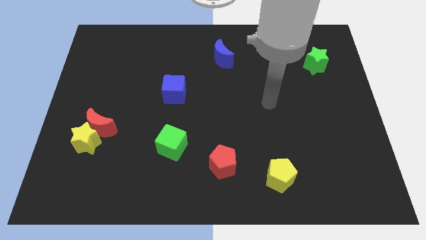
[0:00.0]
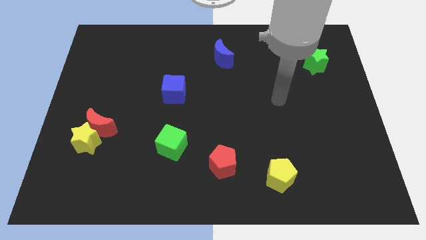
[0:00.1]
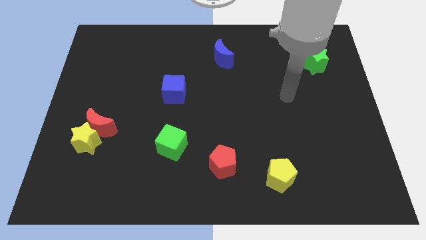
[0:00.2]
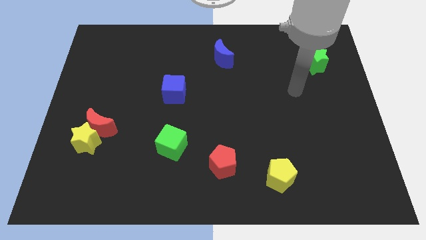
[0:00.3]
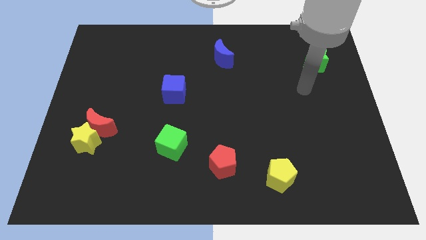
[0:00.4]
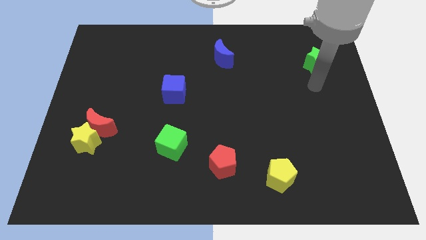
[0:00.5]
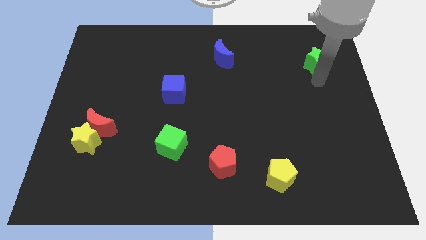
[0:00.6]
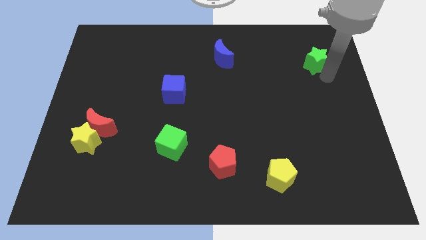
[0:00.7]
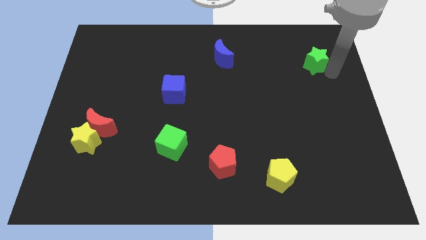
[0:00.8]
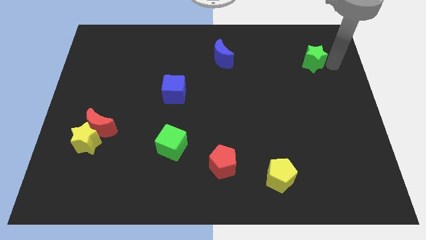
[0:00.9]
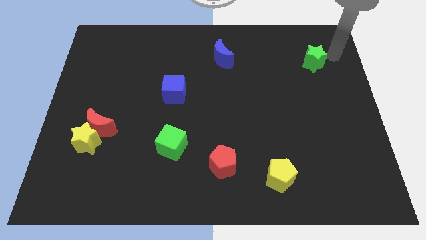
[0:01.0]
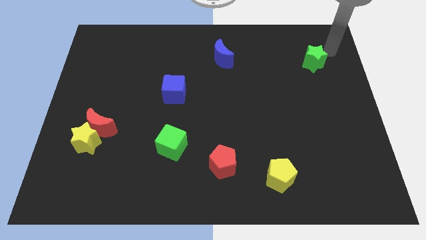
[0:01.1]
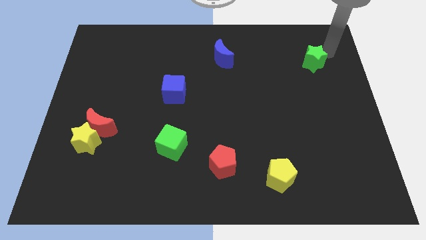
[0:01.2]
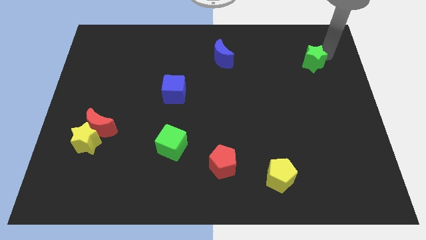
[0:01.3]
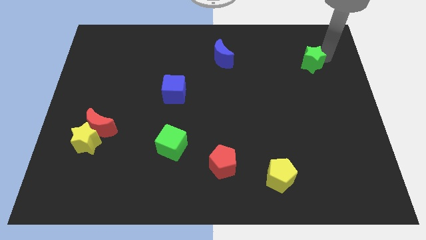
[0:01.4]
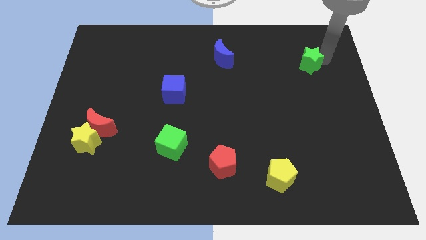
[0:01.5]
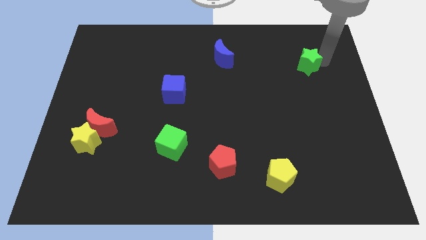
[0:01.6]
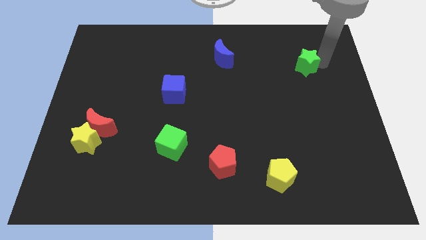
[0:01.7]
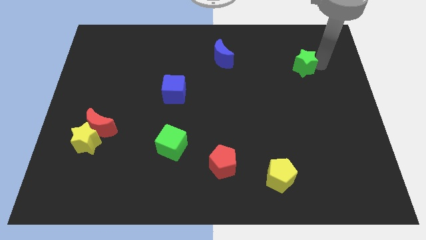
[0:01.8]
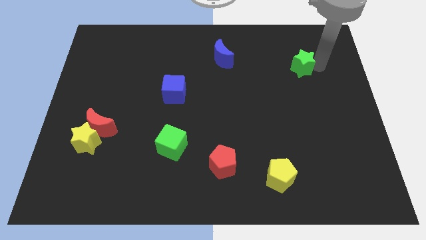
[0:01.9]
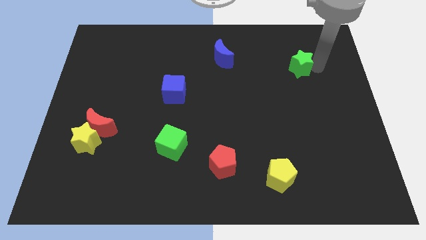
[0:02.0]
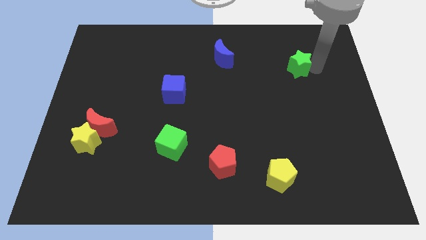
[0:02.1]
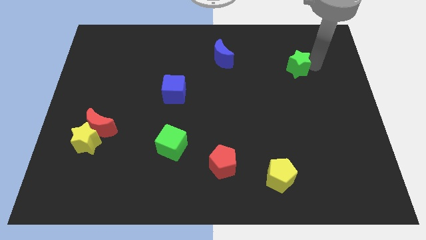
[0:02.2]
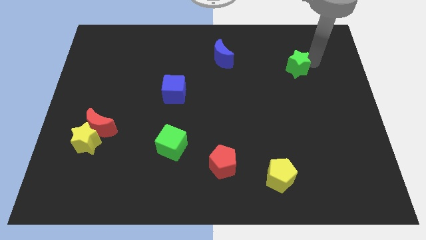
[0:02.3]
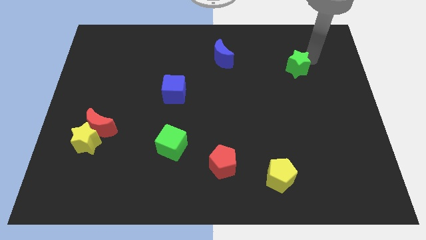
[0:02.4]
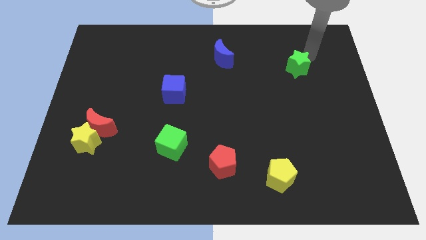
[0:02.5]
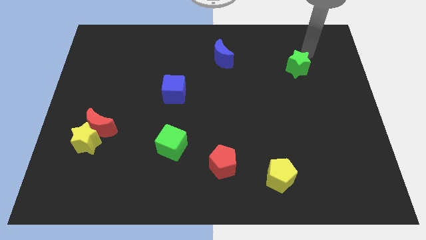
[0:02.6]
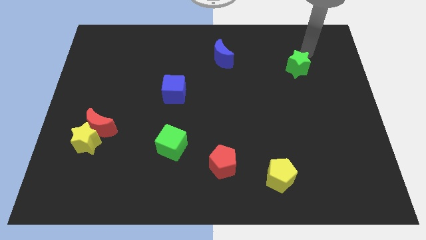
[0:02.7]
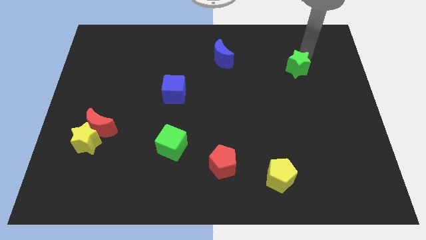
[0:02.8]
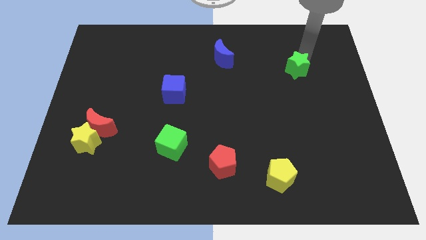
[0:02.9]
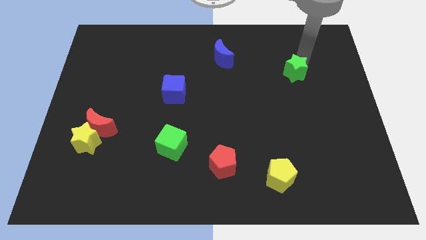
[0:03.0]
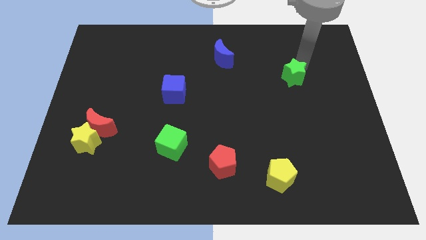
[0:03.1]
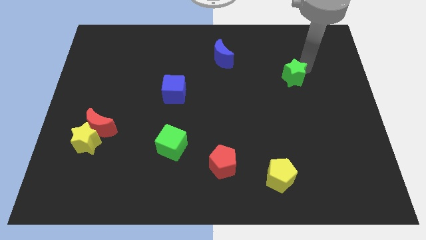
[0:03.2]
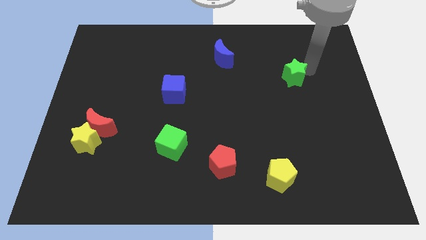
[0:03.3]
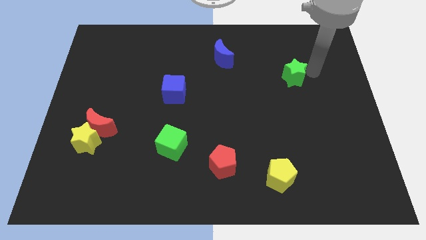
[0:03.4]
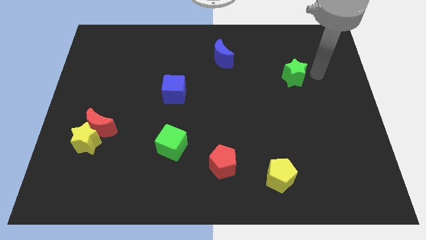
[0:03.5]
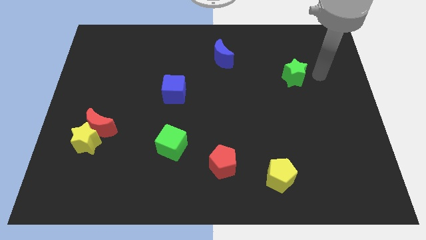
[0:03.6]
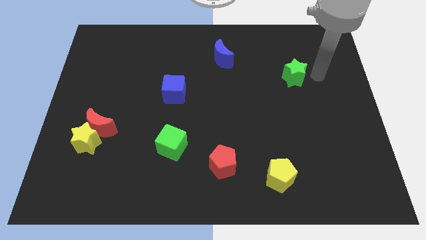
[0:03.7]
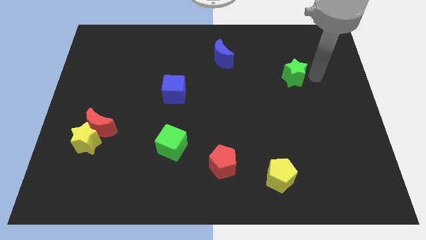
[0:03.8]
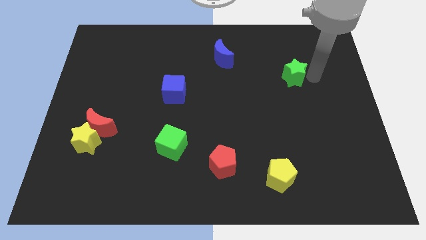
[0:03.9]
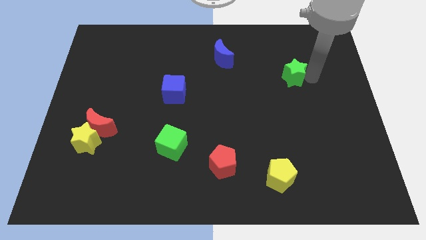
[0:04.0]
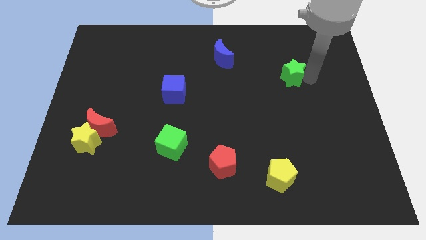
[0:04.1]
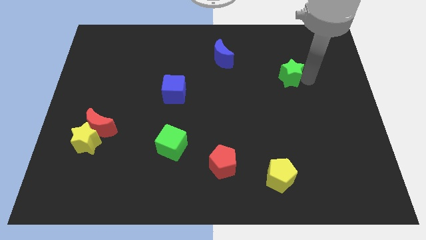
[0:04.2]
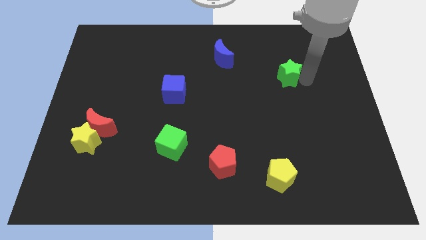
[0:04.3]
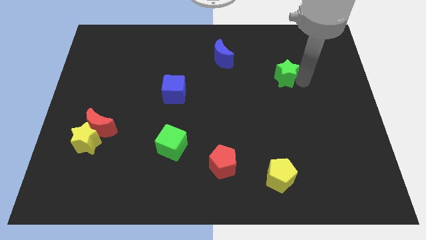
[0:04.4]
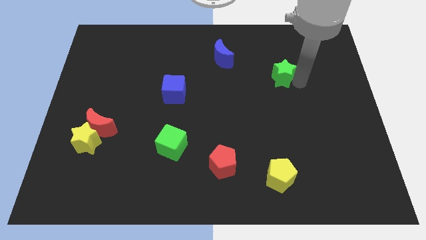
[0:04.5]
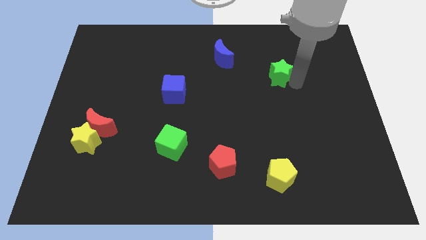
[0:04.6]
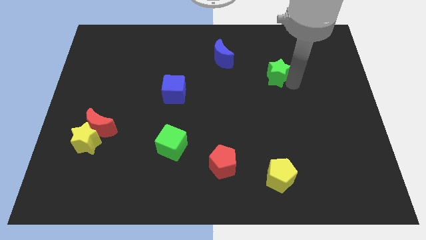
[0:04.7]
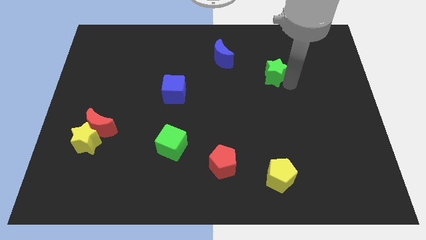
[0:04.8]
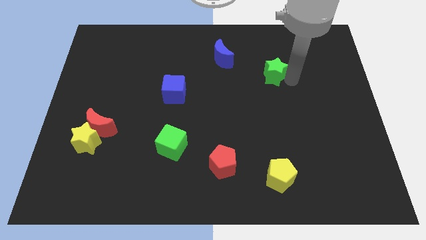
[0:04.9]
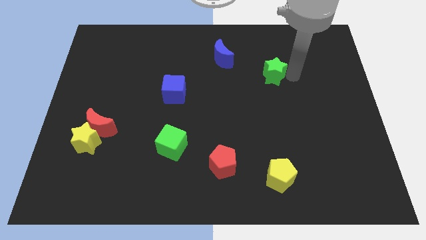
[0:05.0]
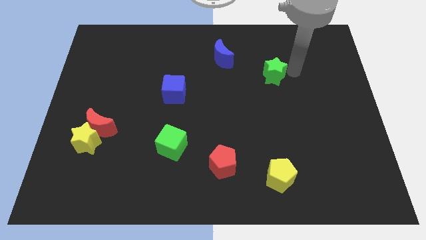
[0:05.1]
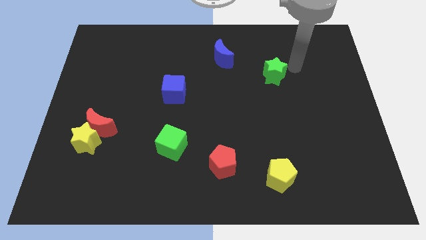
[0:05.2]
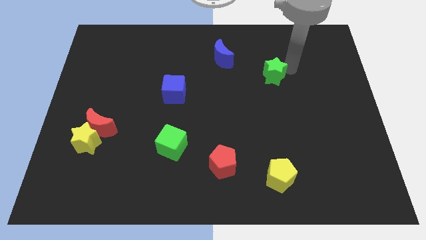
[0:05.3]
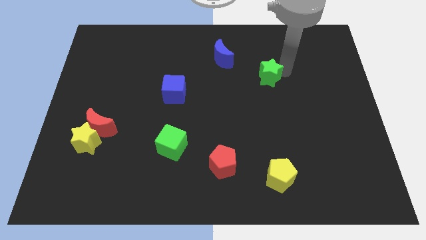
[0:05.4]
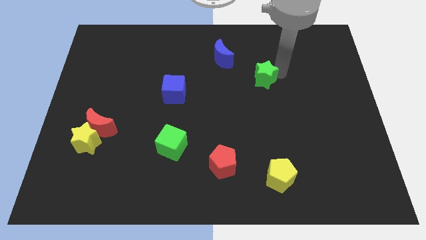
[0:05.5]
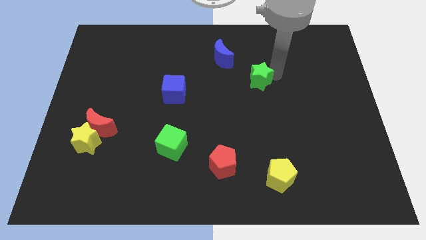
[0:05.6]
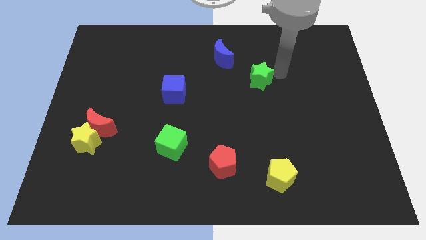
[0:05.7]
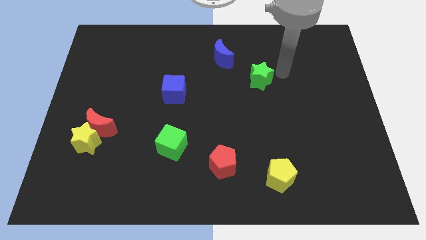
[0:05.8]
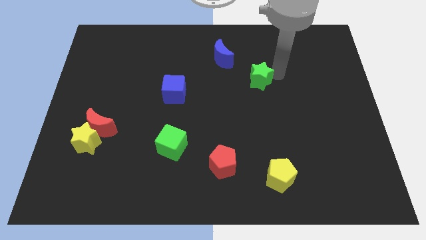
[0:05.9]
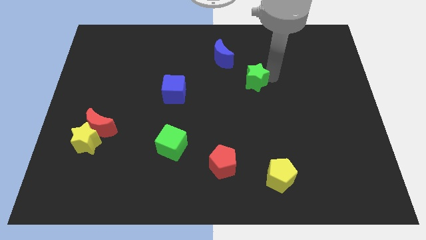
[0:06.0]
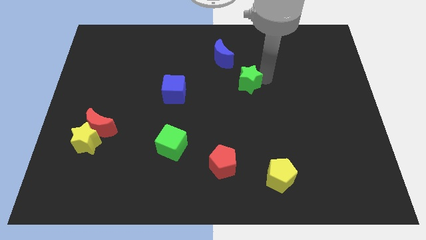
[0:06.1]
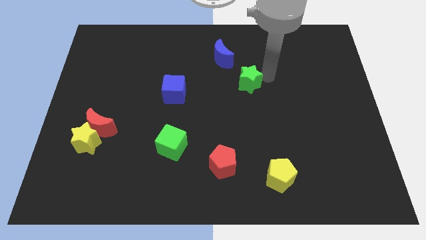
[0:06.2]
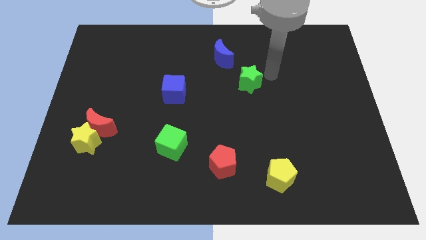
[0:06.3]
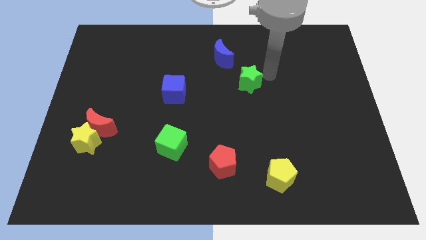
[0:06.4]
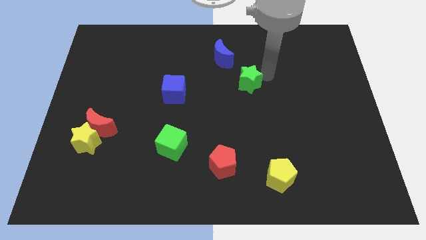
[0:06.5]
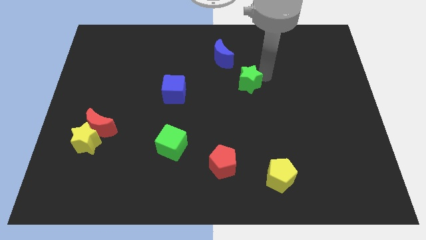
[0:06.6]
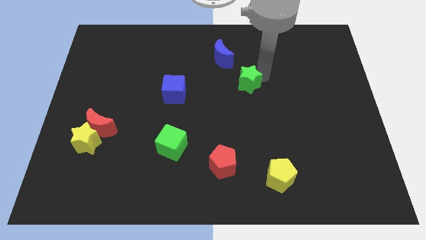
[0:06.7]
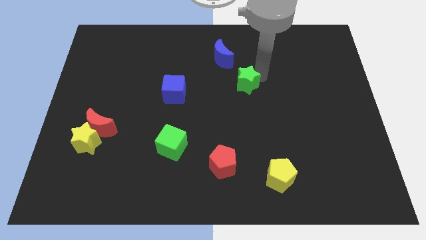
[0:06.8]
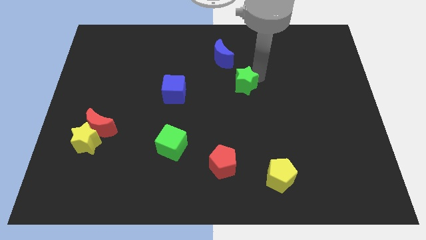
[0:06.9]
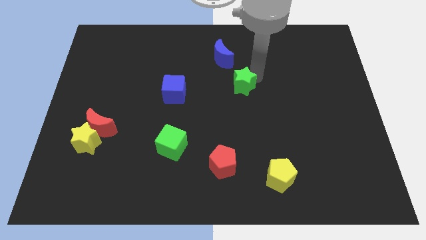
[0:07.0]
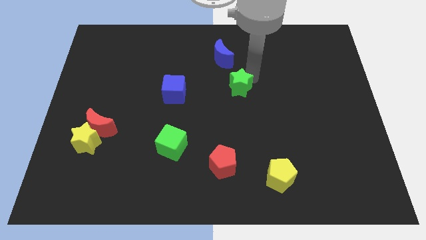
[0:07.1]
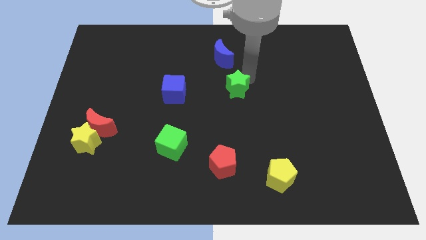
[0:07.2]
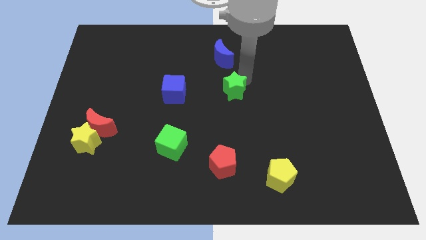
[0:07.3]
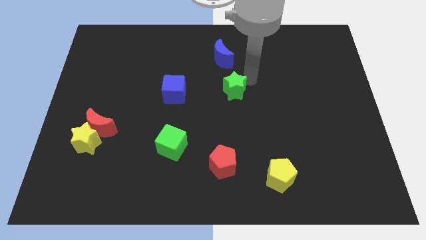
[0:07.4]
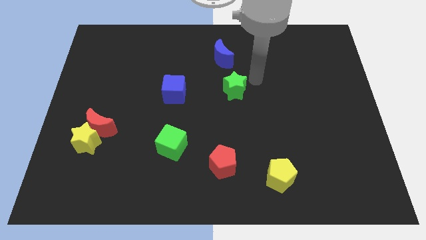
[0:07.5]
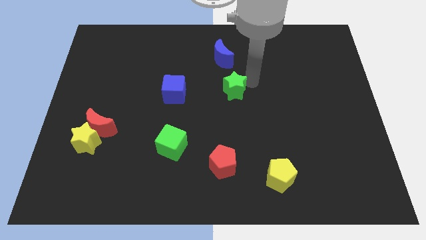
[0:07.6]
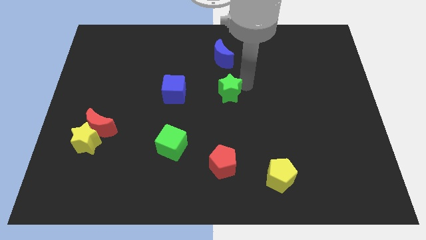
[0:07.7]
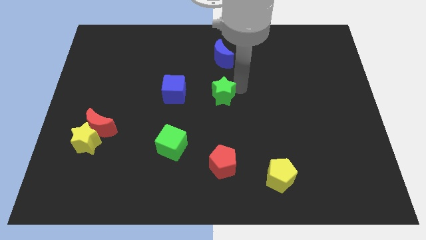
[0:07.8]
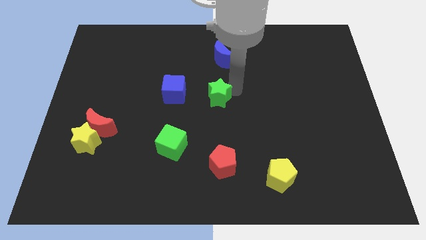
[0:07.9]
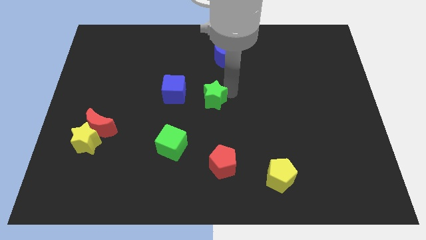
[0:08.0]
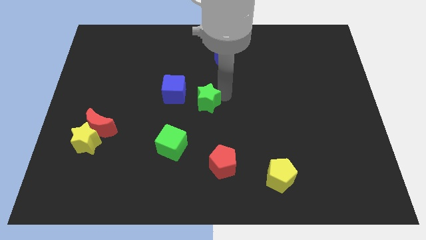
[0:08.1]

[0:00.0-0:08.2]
slide the green star to the bottom right of the blue cube
